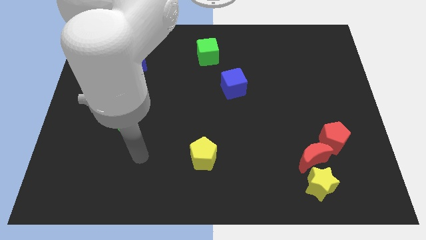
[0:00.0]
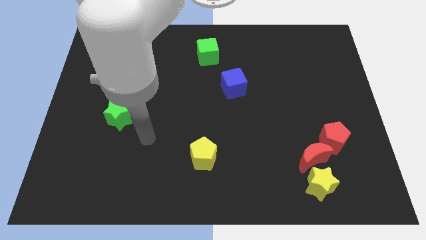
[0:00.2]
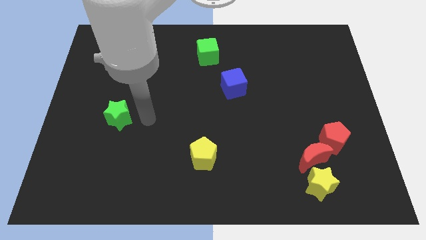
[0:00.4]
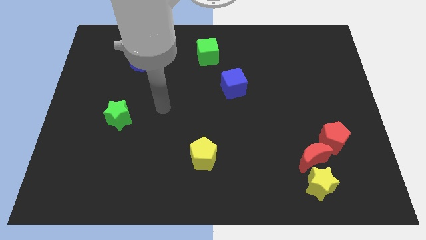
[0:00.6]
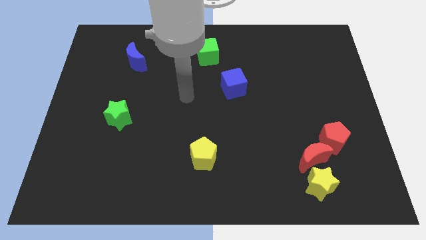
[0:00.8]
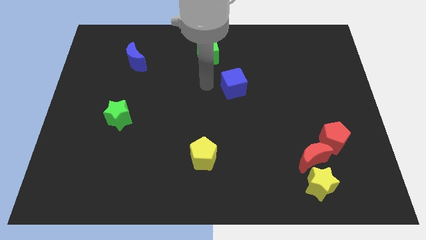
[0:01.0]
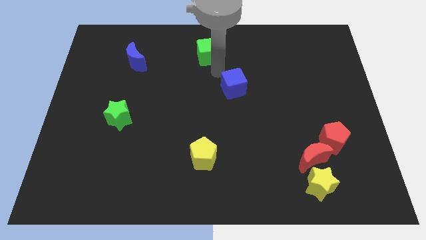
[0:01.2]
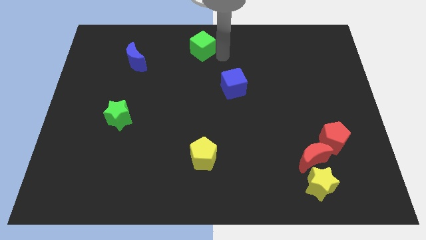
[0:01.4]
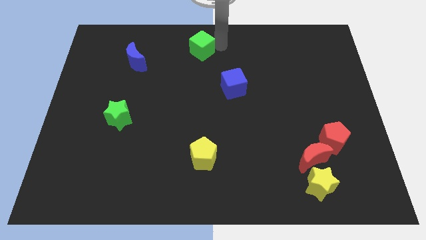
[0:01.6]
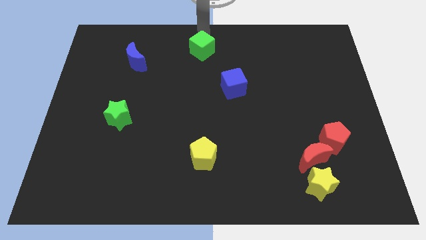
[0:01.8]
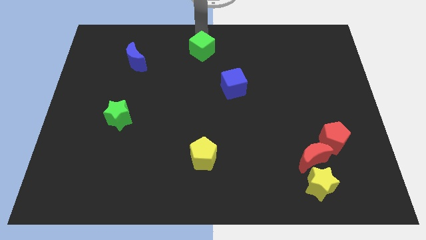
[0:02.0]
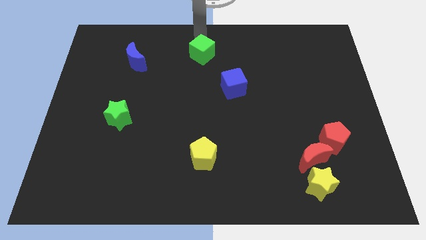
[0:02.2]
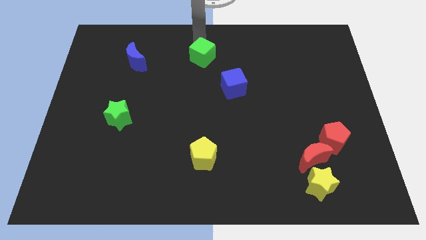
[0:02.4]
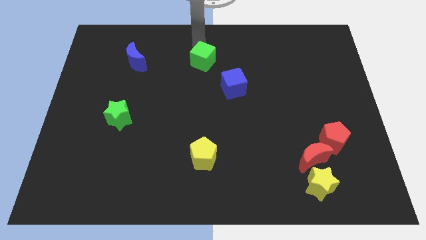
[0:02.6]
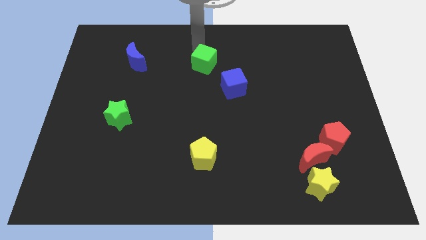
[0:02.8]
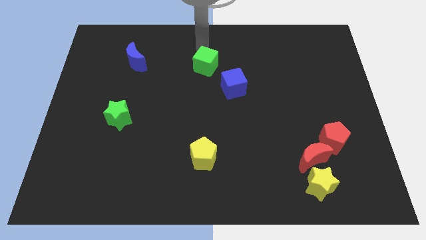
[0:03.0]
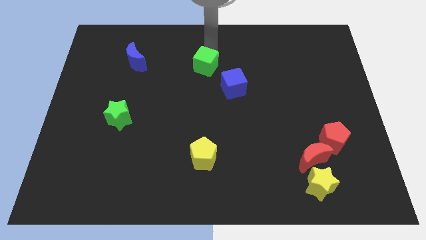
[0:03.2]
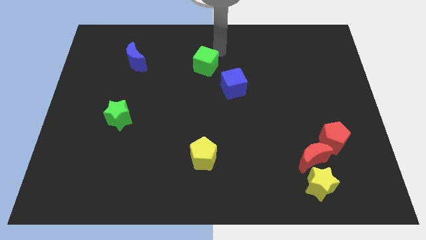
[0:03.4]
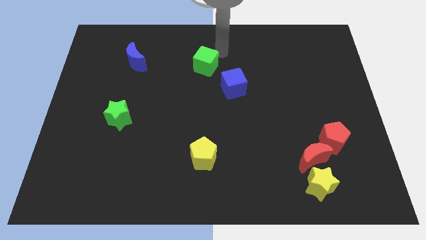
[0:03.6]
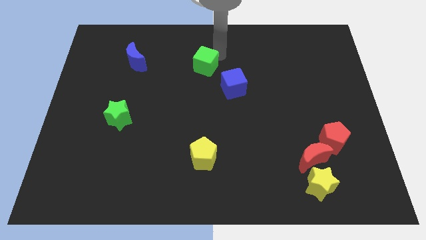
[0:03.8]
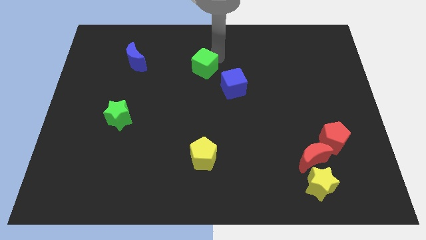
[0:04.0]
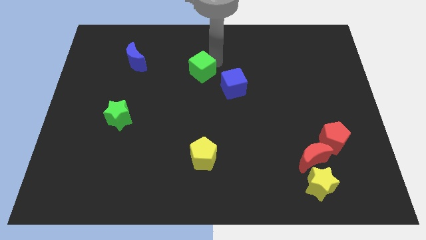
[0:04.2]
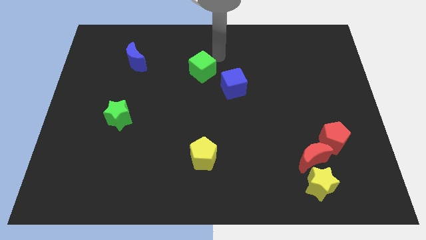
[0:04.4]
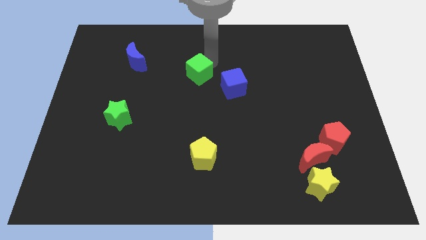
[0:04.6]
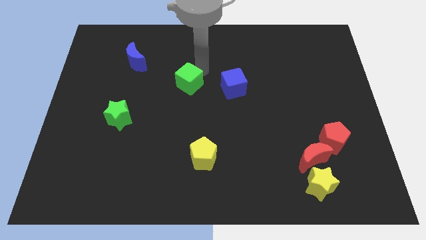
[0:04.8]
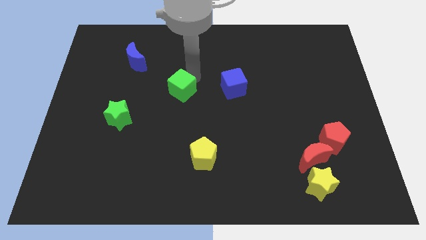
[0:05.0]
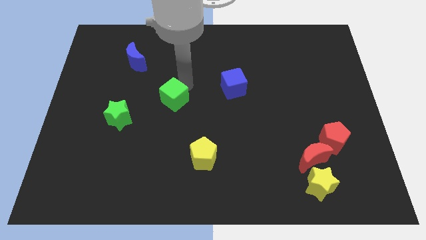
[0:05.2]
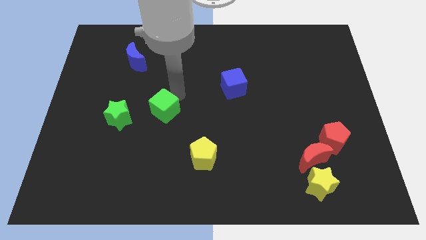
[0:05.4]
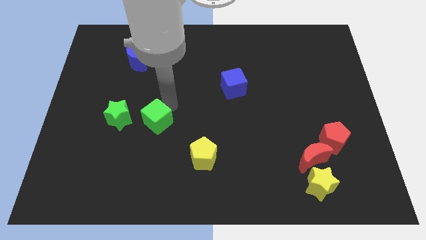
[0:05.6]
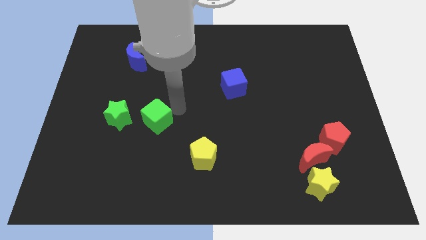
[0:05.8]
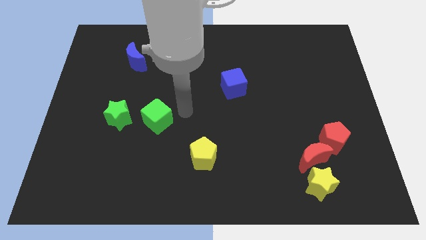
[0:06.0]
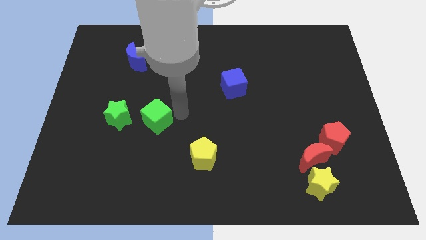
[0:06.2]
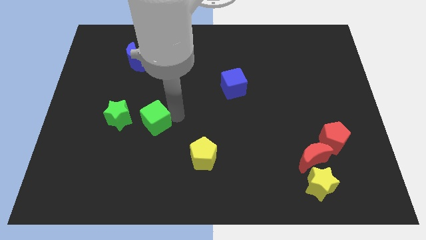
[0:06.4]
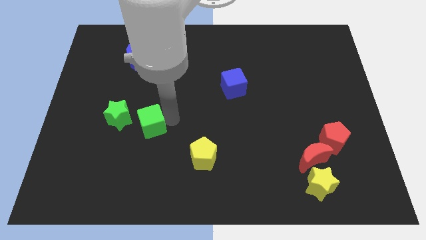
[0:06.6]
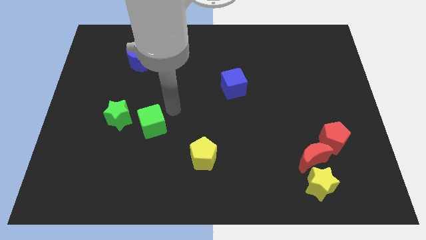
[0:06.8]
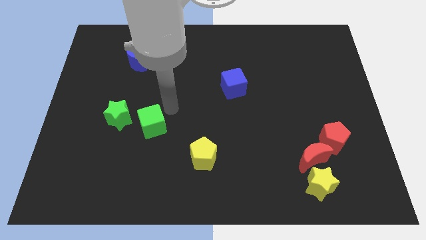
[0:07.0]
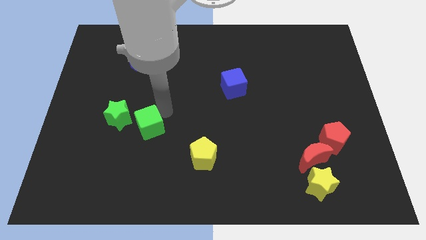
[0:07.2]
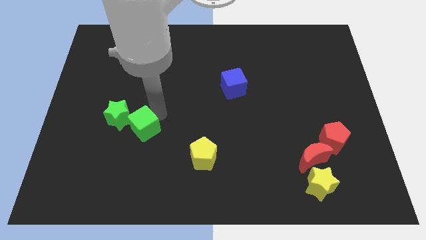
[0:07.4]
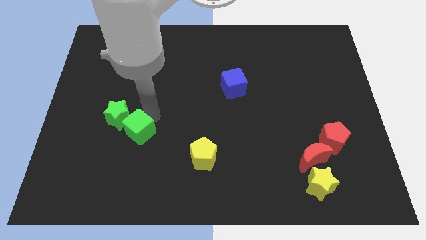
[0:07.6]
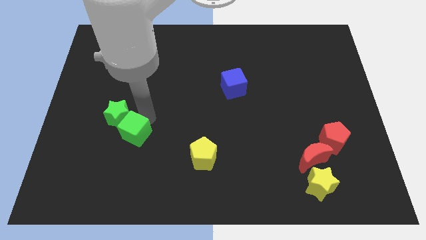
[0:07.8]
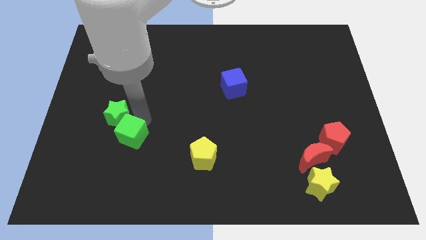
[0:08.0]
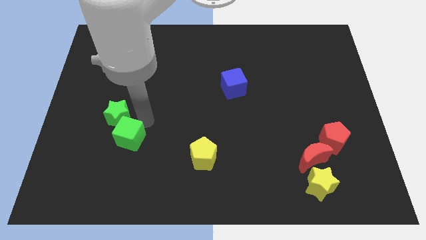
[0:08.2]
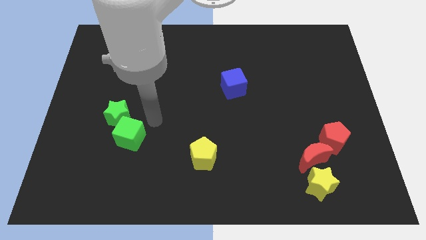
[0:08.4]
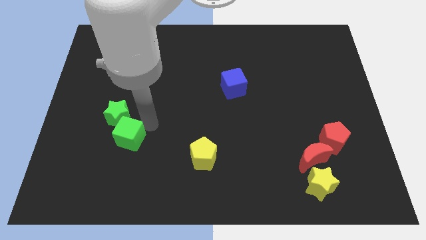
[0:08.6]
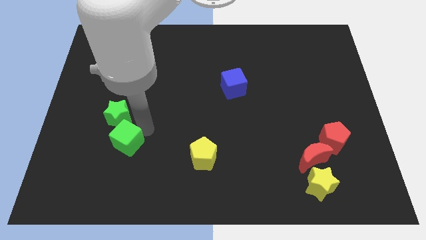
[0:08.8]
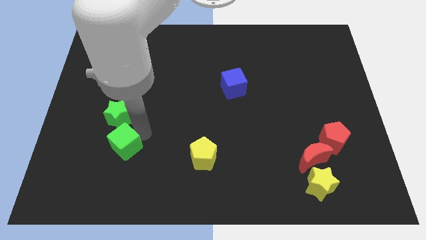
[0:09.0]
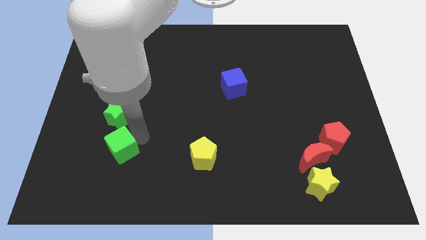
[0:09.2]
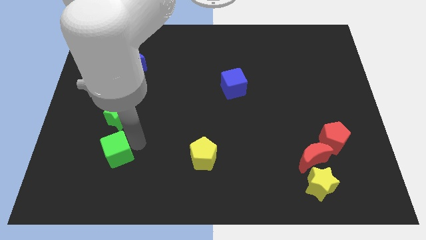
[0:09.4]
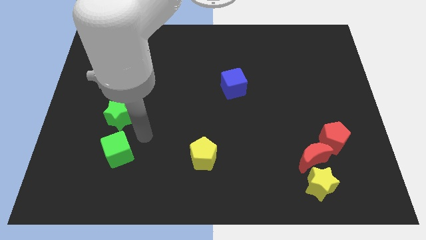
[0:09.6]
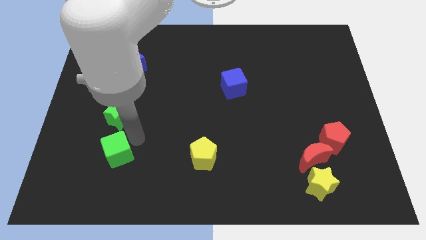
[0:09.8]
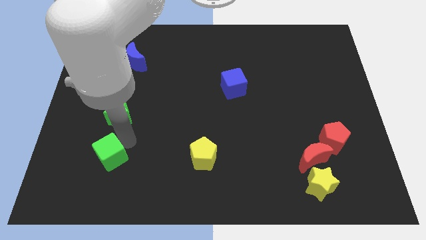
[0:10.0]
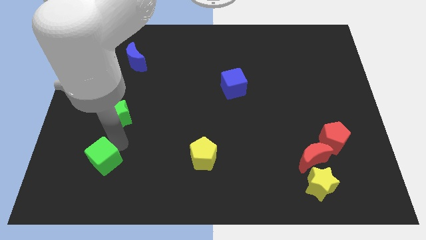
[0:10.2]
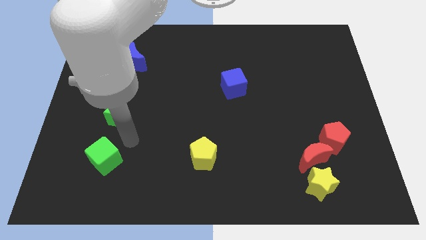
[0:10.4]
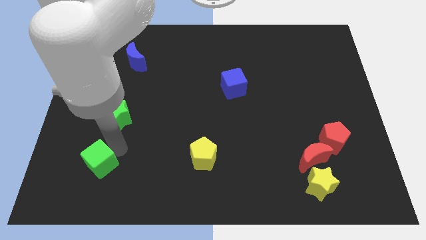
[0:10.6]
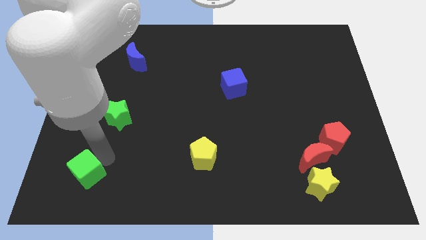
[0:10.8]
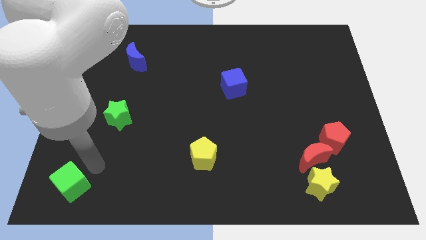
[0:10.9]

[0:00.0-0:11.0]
put the green cube to the bottom left corner

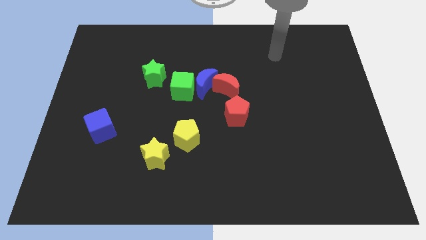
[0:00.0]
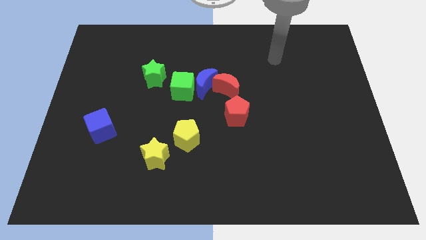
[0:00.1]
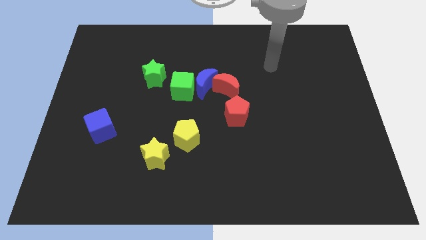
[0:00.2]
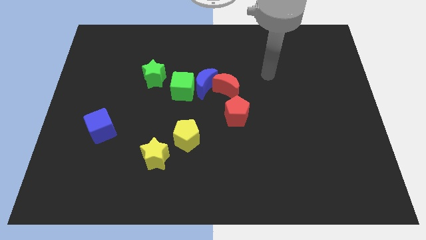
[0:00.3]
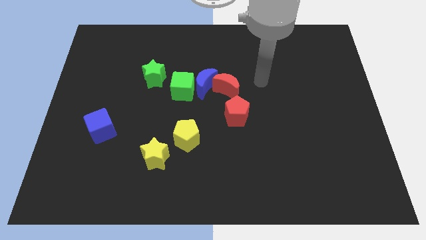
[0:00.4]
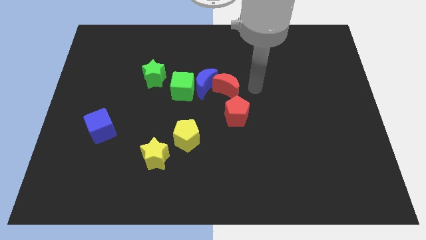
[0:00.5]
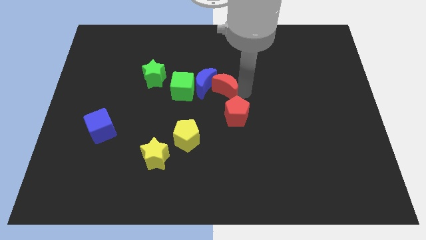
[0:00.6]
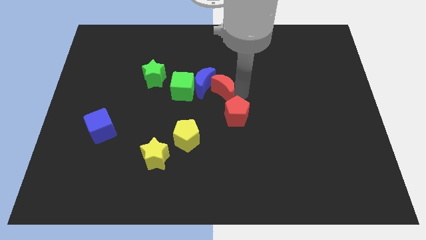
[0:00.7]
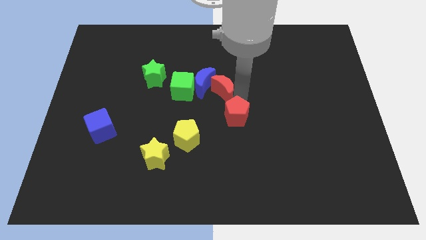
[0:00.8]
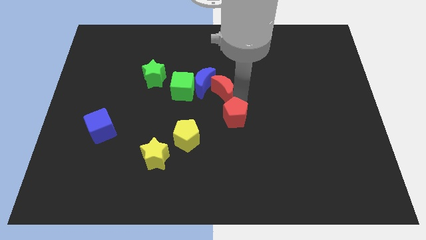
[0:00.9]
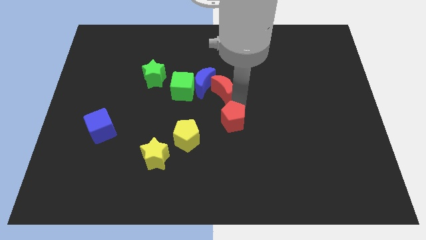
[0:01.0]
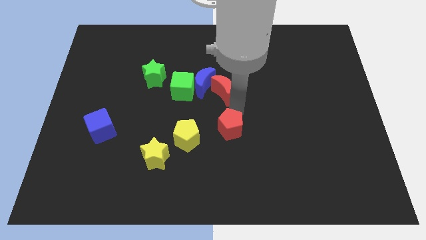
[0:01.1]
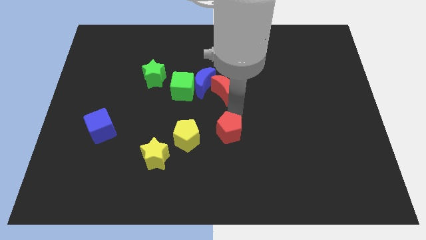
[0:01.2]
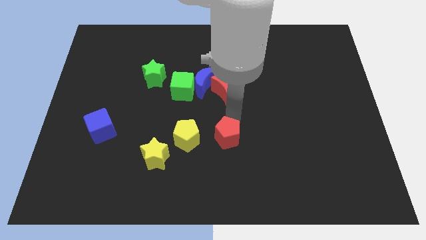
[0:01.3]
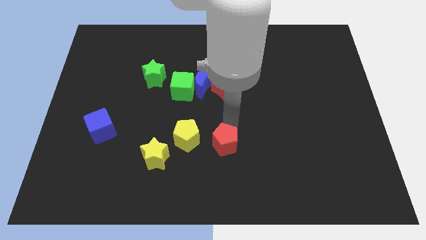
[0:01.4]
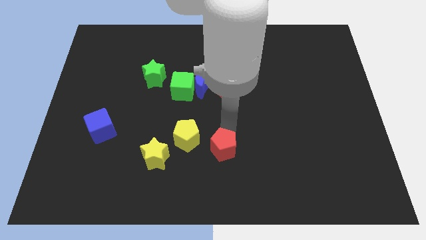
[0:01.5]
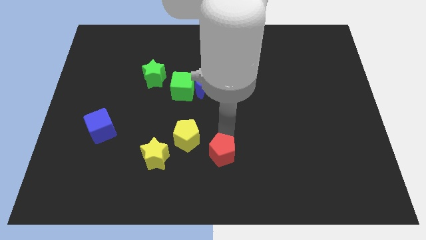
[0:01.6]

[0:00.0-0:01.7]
push the red pentagon to the bottom
